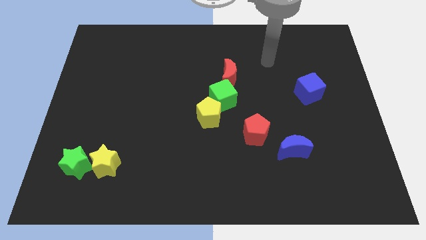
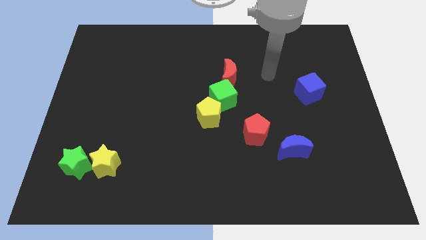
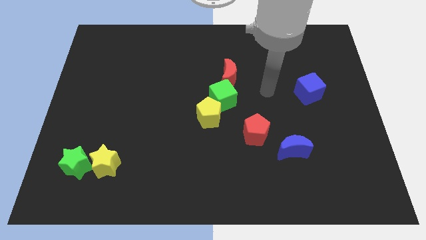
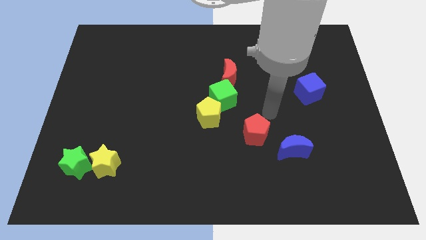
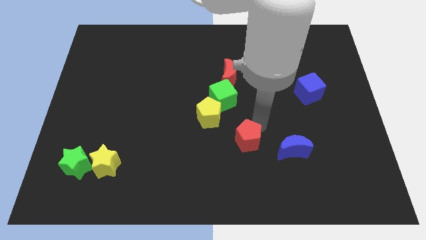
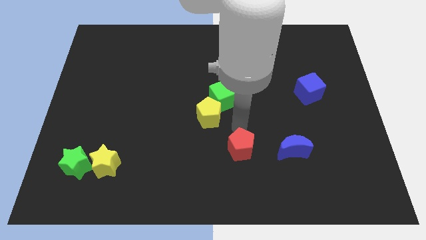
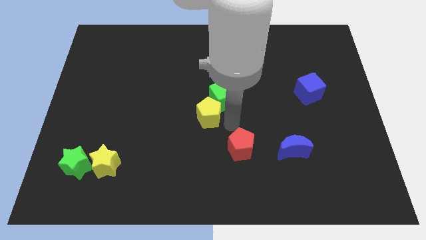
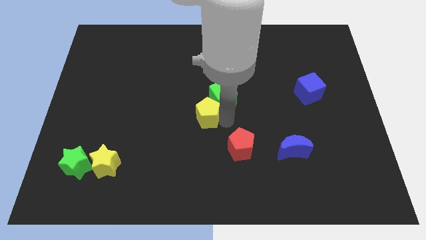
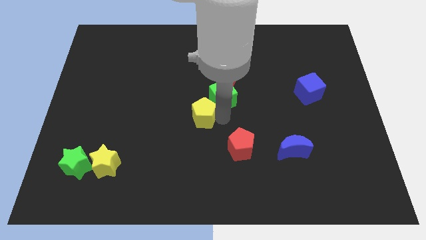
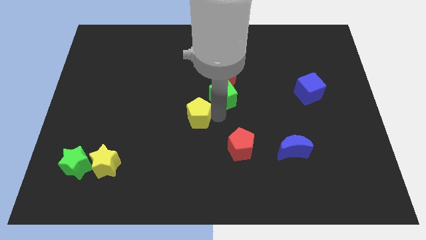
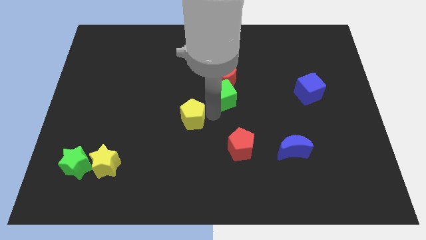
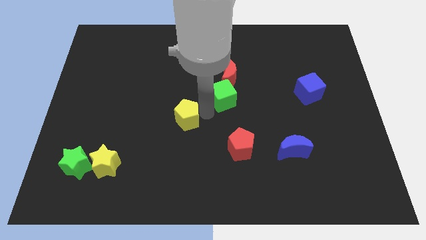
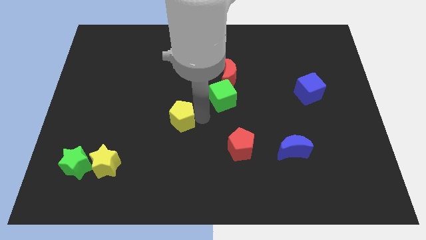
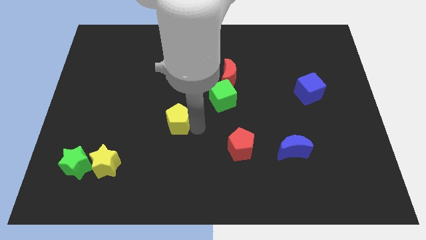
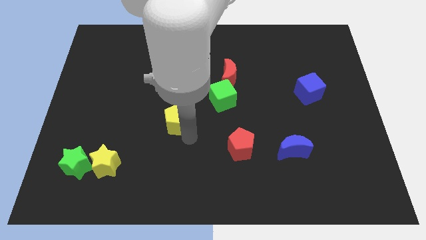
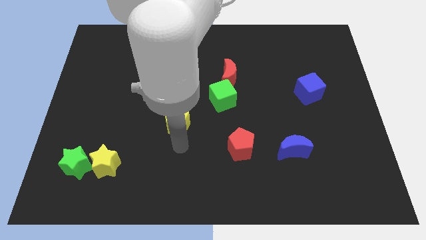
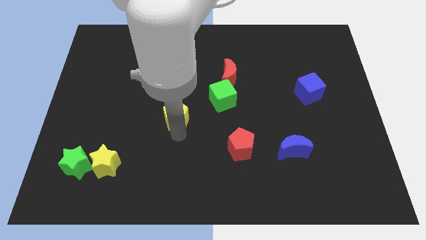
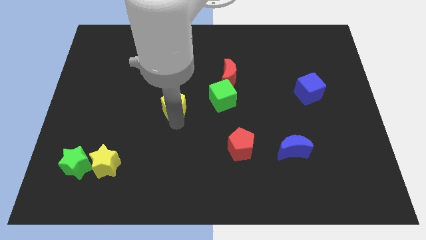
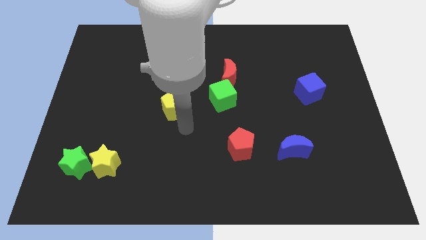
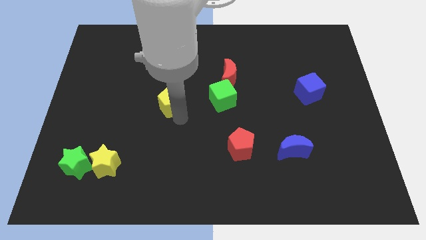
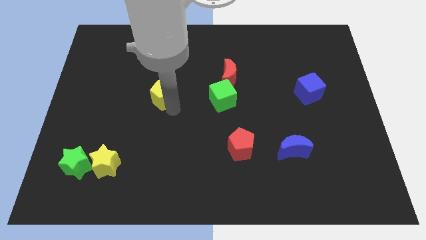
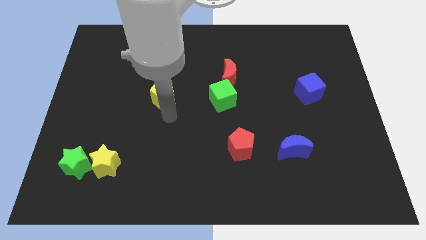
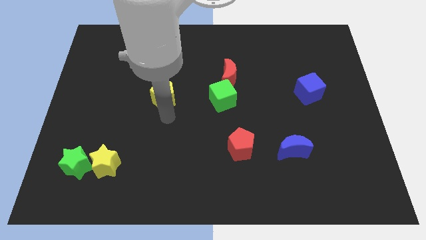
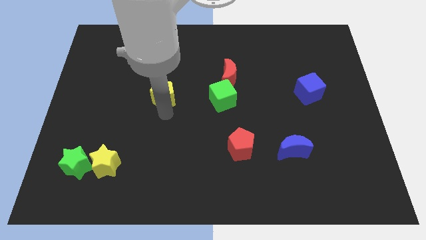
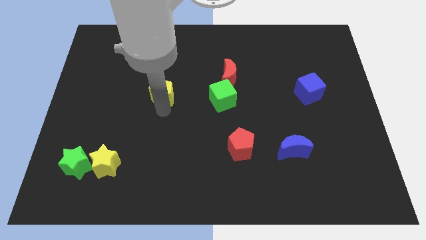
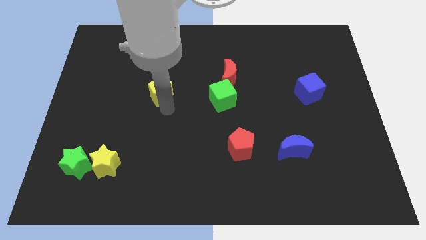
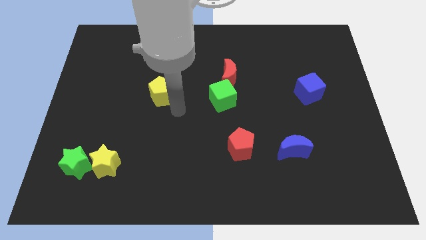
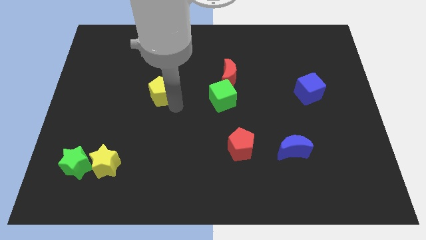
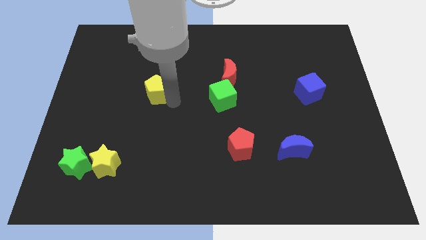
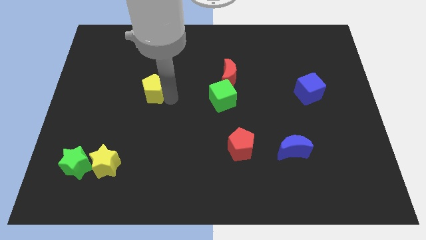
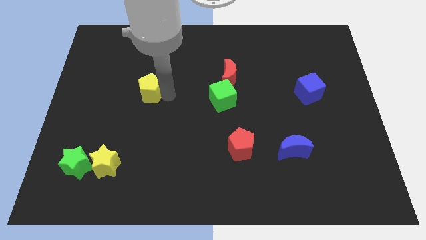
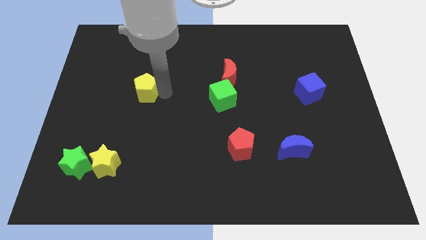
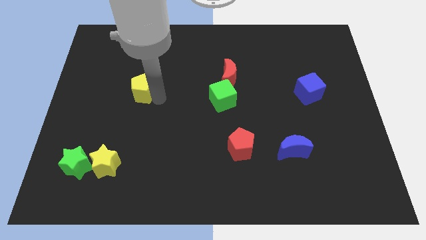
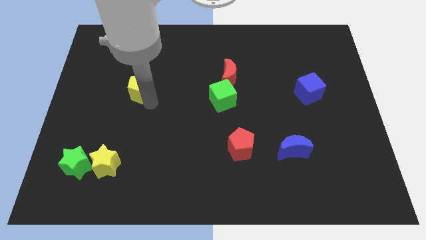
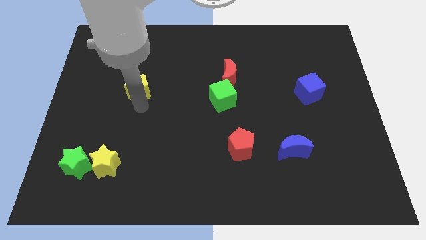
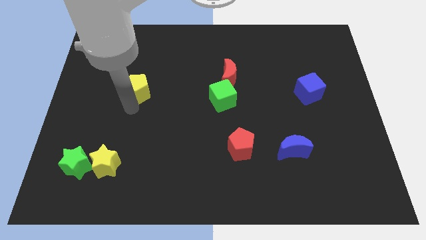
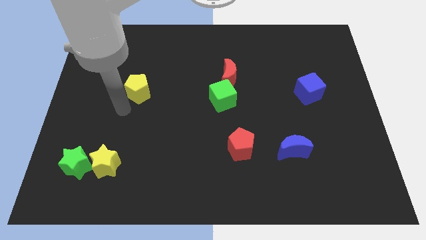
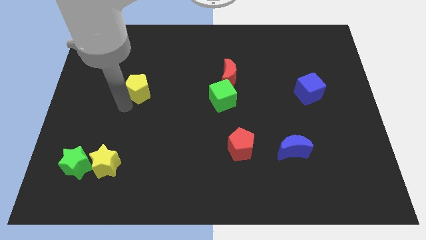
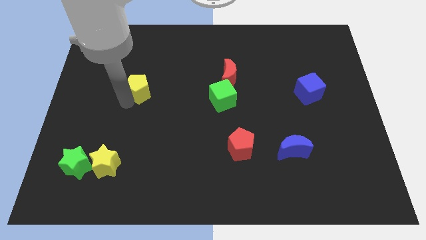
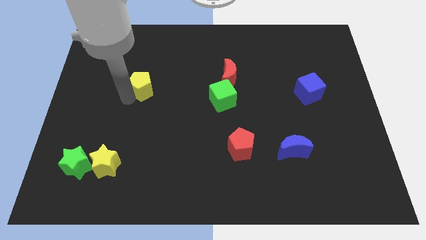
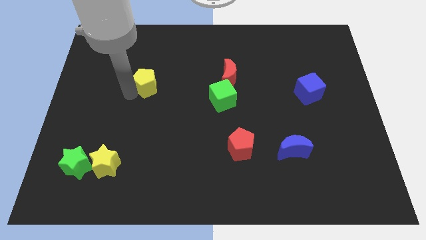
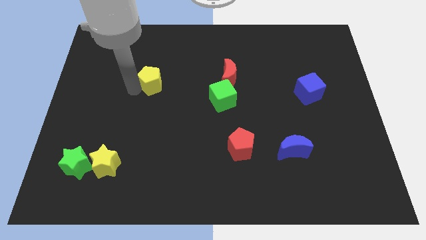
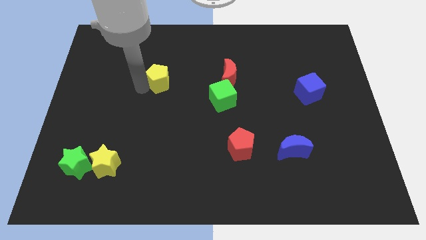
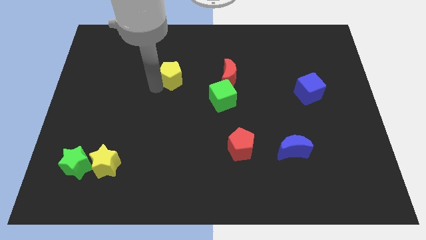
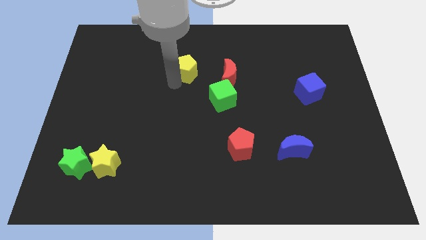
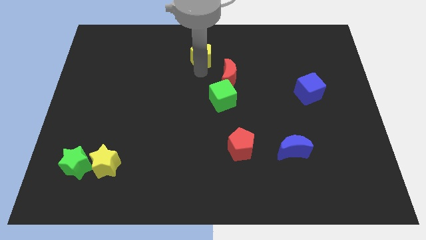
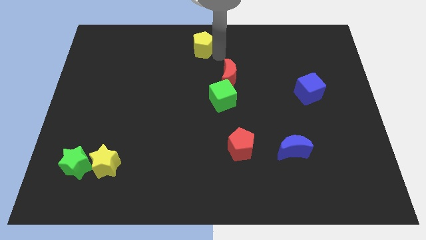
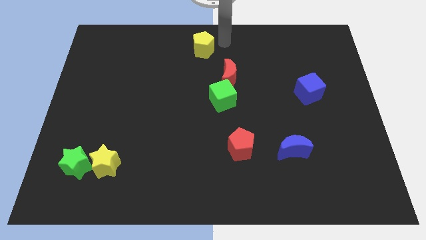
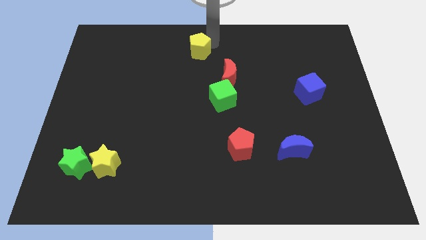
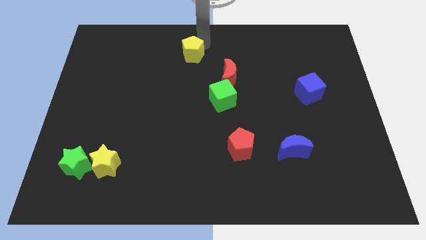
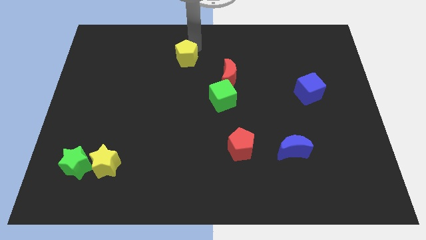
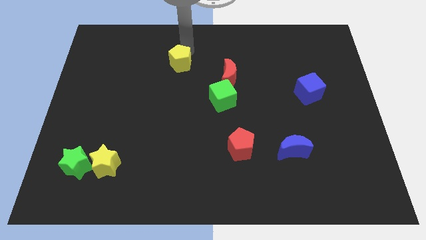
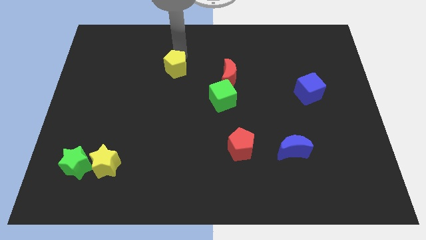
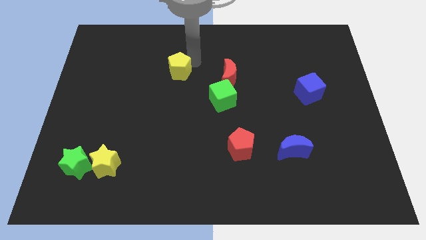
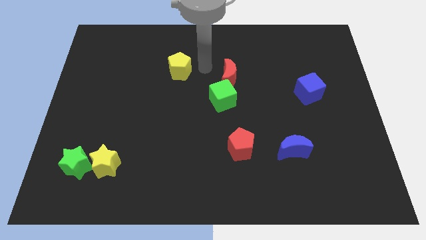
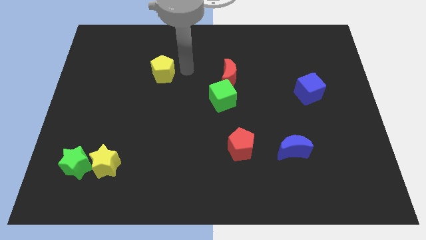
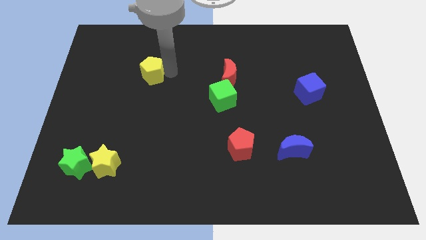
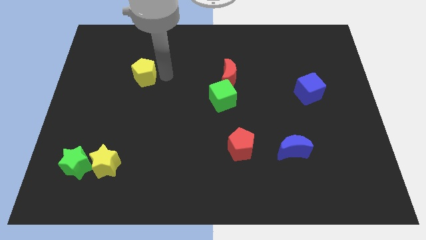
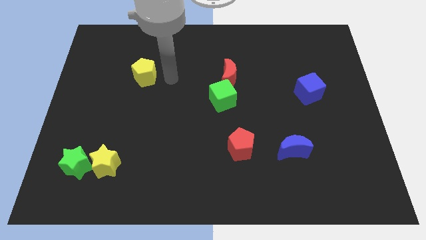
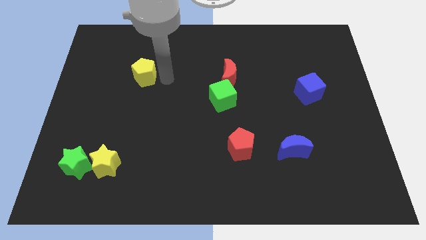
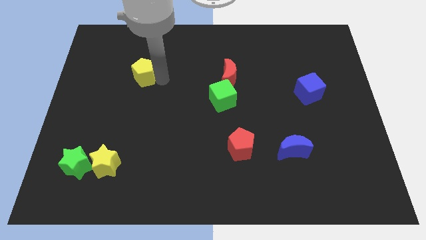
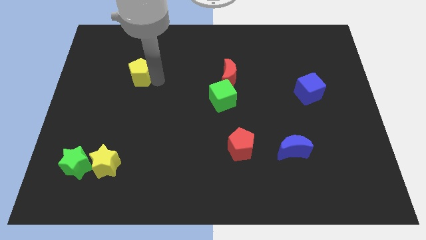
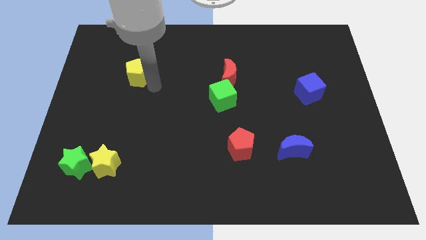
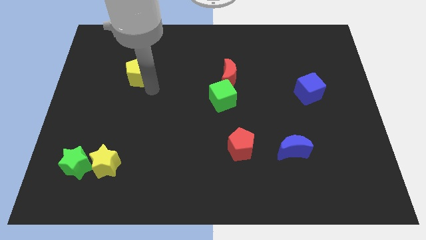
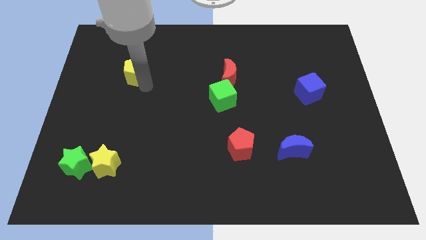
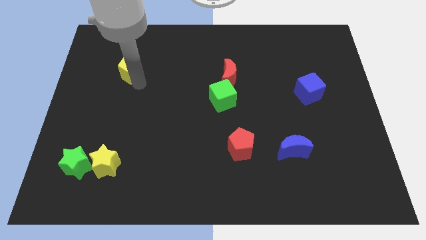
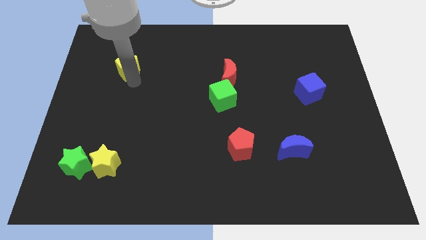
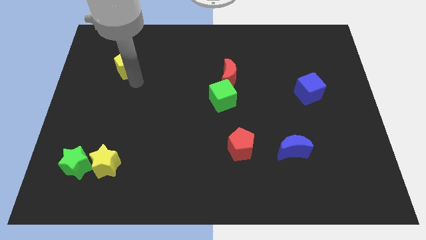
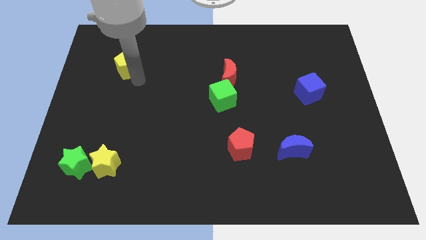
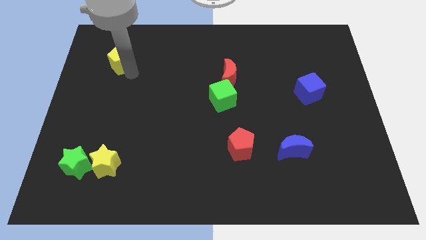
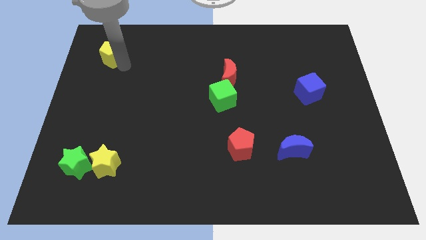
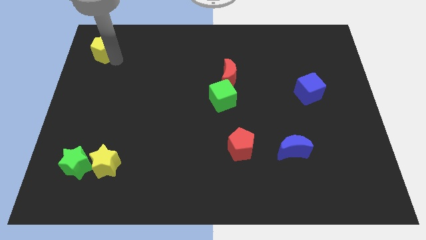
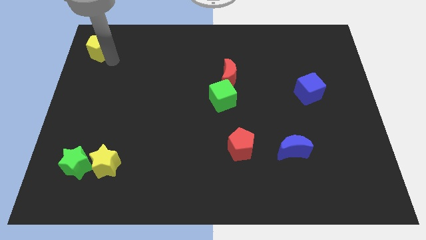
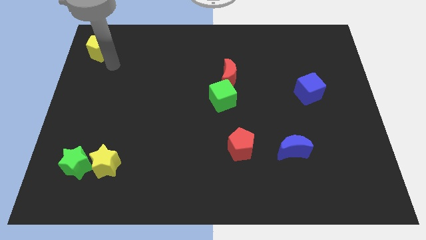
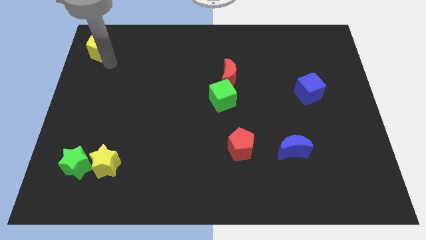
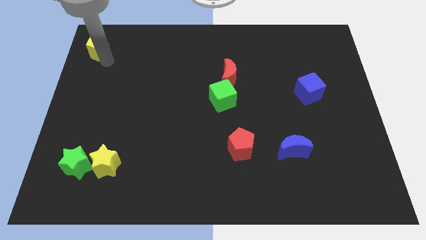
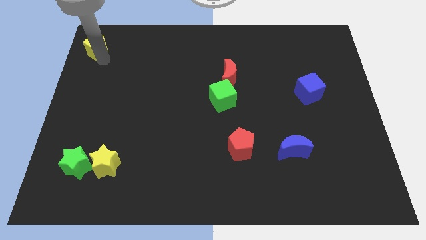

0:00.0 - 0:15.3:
slide the yellow pentagon to the top left
